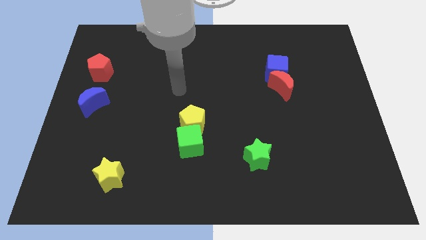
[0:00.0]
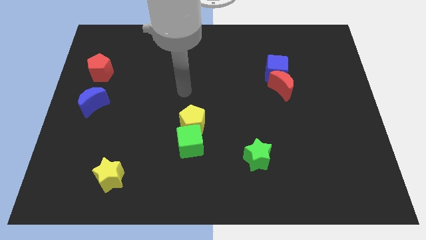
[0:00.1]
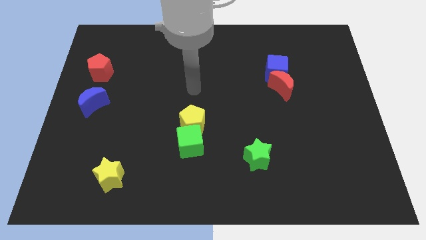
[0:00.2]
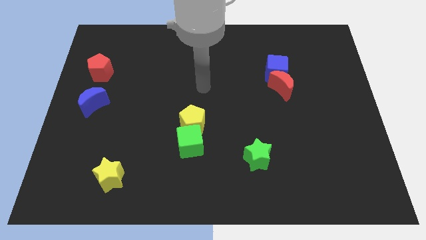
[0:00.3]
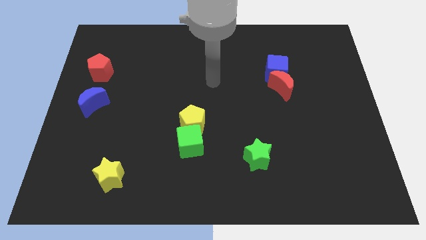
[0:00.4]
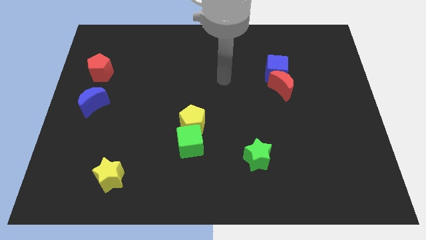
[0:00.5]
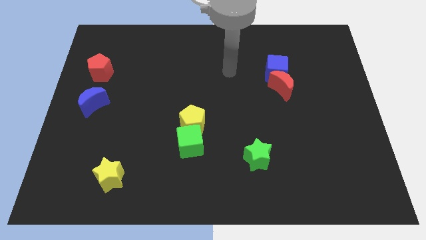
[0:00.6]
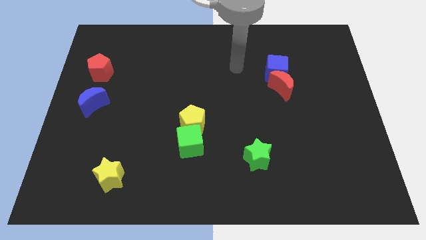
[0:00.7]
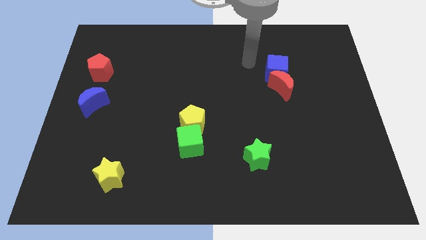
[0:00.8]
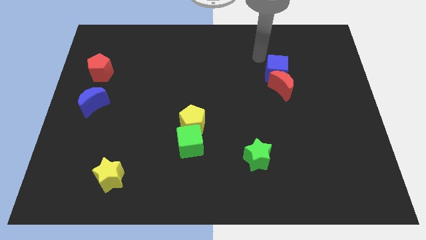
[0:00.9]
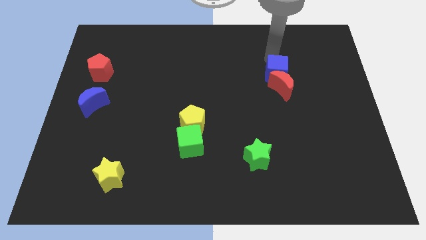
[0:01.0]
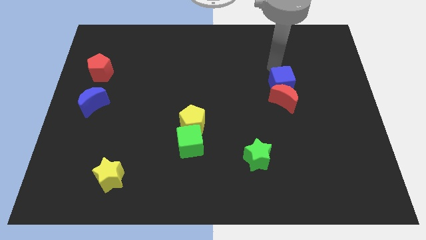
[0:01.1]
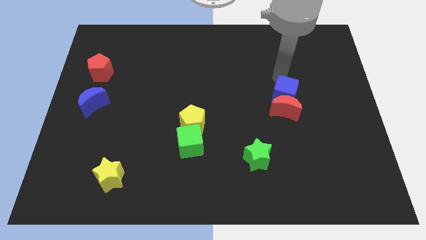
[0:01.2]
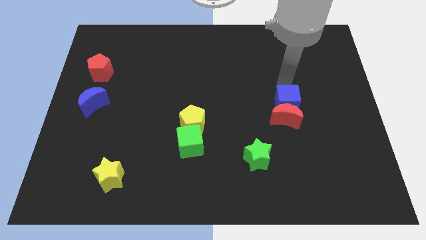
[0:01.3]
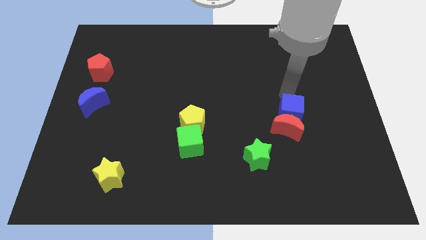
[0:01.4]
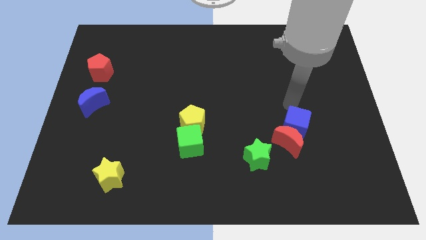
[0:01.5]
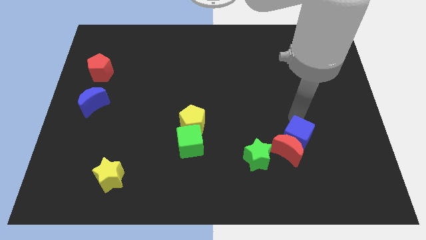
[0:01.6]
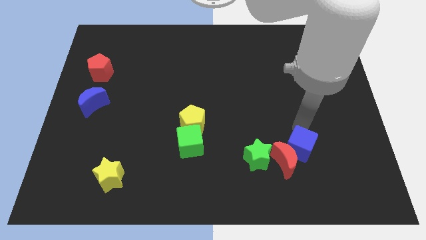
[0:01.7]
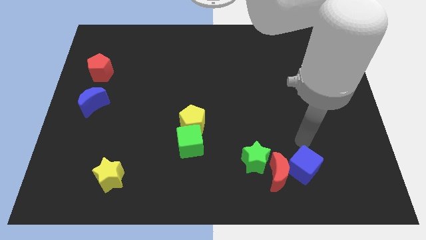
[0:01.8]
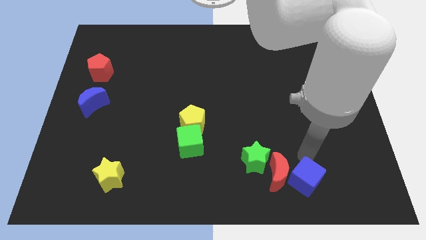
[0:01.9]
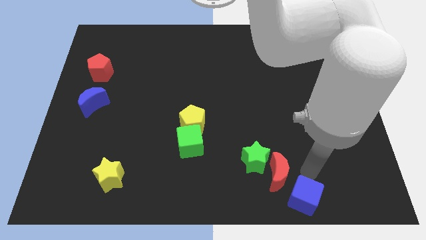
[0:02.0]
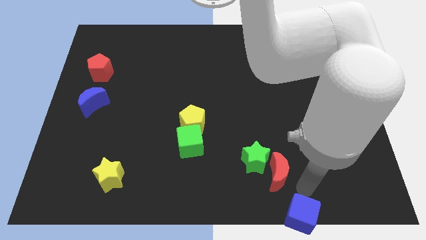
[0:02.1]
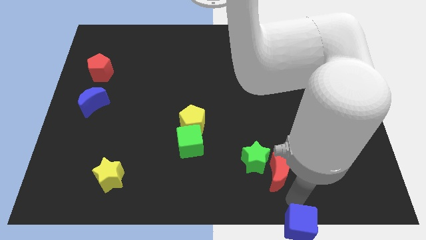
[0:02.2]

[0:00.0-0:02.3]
move the red moon away from the blue cube

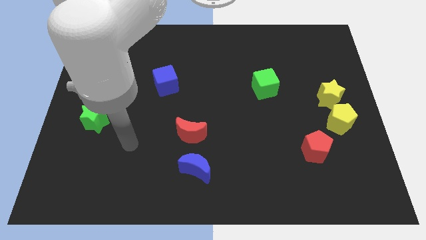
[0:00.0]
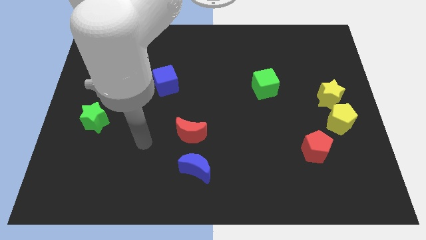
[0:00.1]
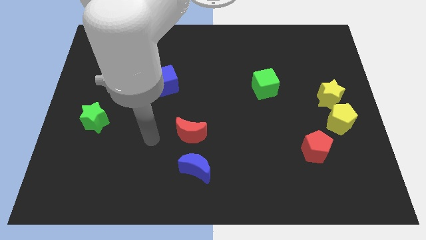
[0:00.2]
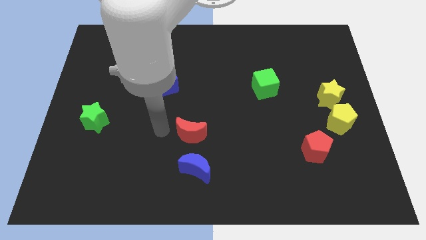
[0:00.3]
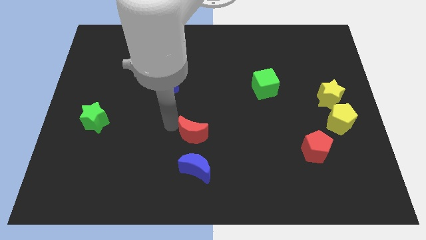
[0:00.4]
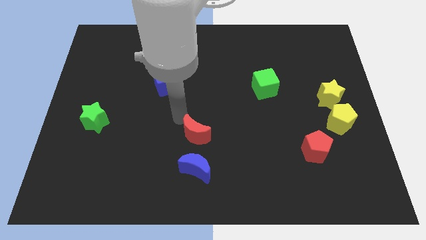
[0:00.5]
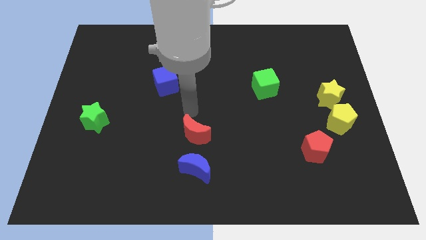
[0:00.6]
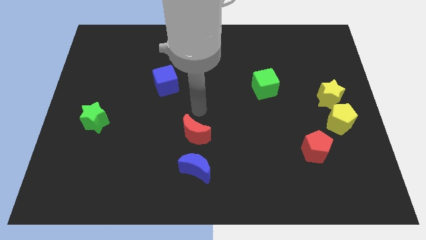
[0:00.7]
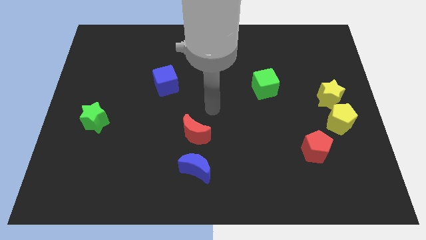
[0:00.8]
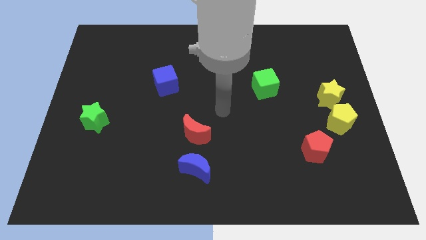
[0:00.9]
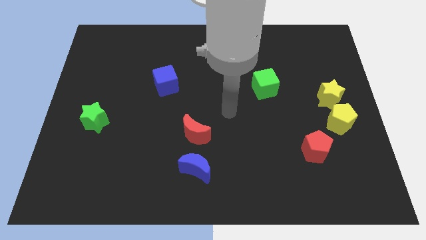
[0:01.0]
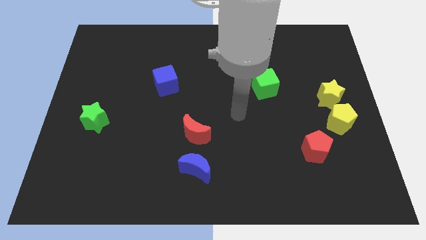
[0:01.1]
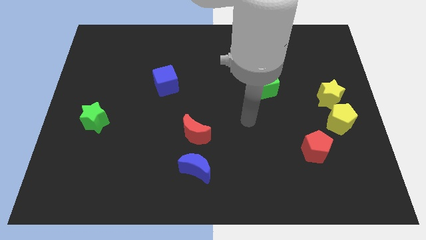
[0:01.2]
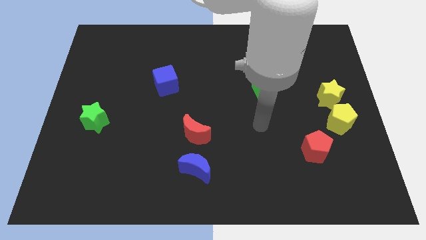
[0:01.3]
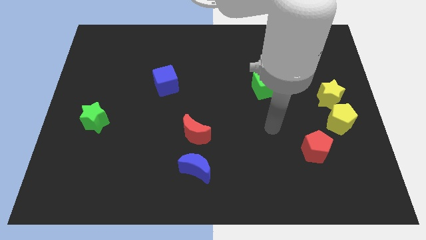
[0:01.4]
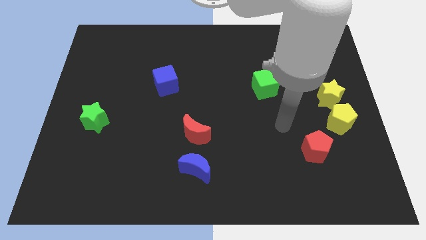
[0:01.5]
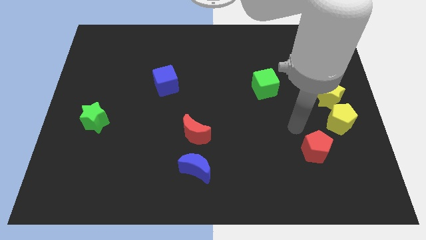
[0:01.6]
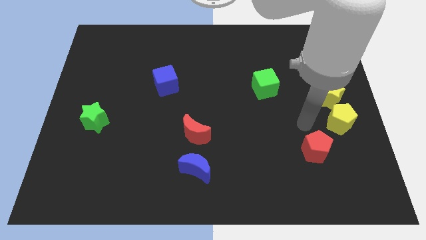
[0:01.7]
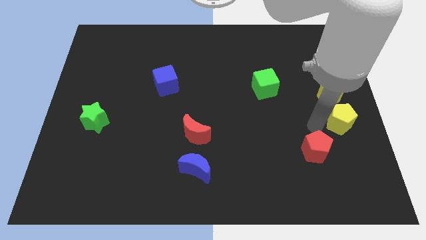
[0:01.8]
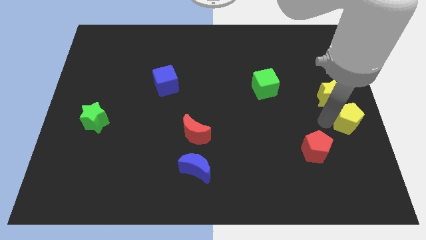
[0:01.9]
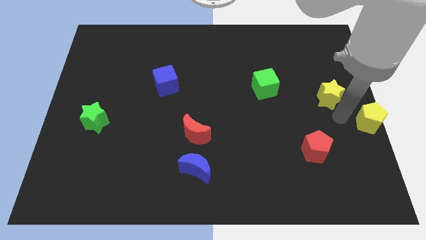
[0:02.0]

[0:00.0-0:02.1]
pull the yellow star apart from the yellow pentagon

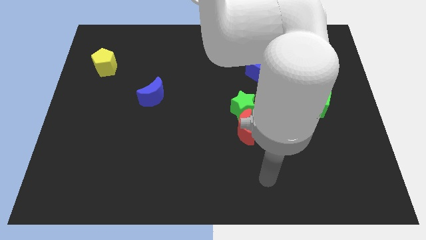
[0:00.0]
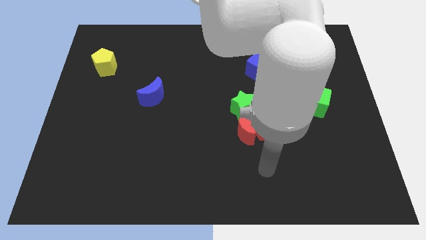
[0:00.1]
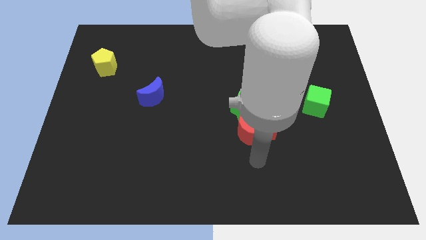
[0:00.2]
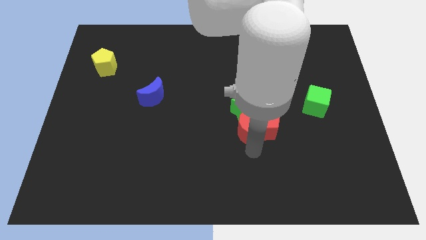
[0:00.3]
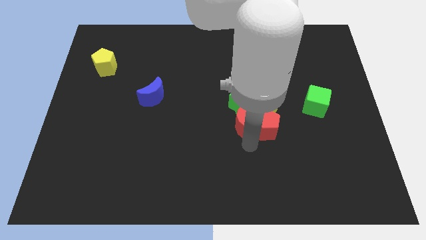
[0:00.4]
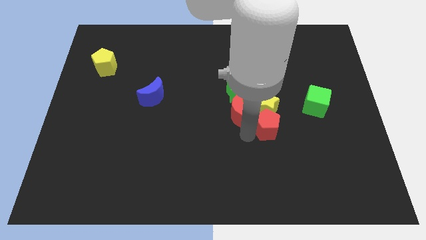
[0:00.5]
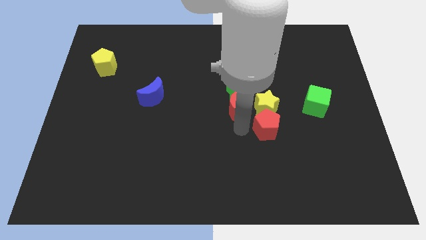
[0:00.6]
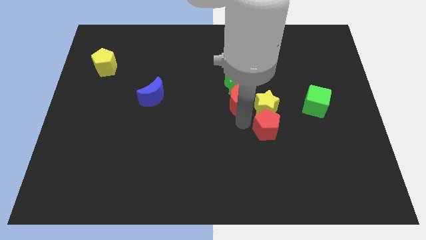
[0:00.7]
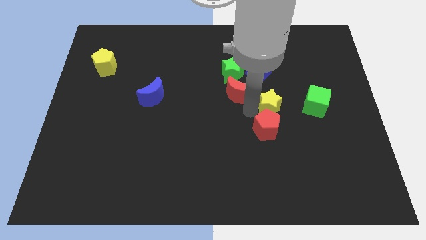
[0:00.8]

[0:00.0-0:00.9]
move the red pentagon away from the group of blocks

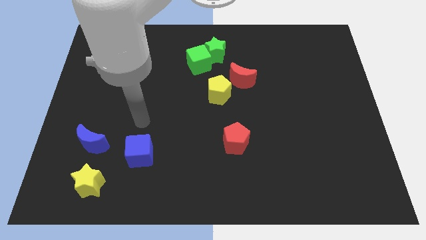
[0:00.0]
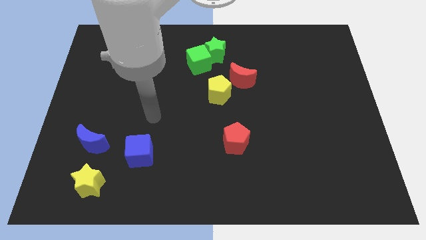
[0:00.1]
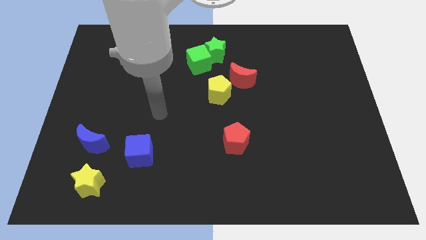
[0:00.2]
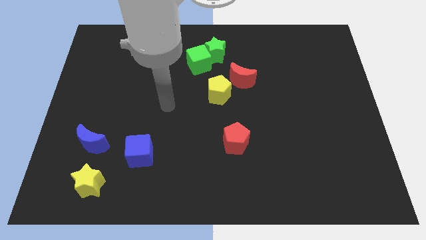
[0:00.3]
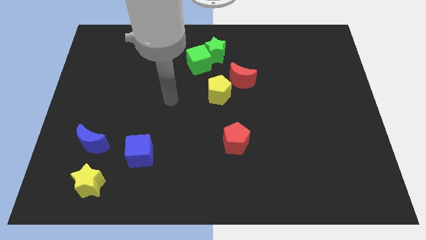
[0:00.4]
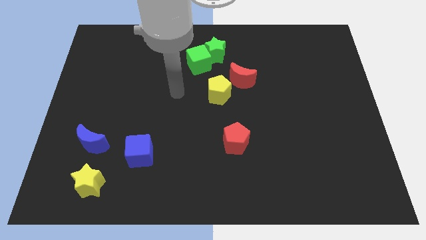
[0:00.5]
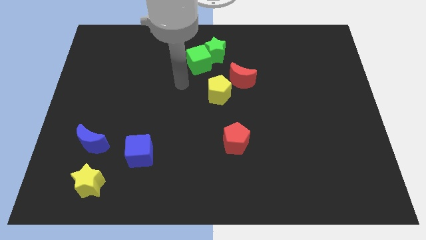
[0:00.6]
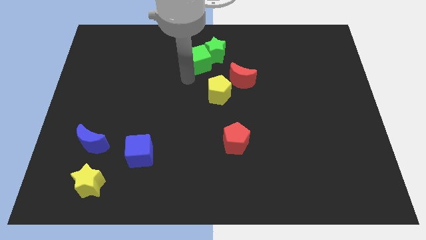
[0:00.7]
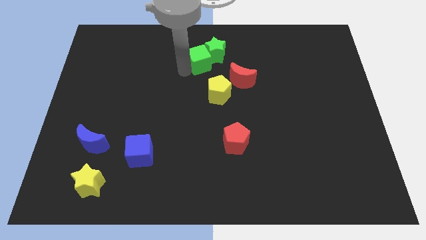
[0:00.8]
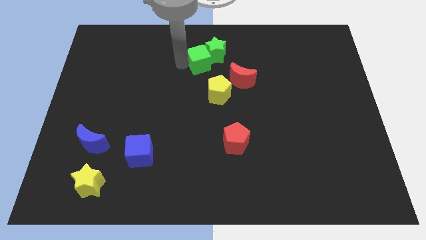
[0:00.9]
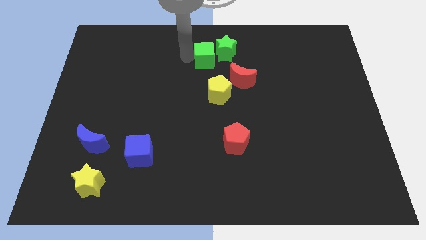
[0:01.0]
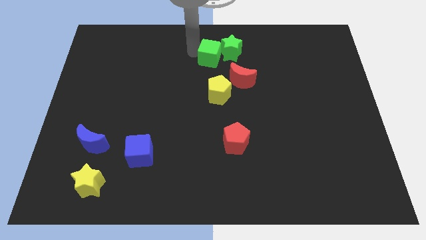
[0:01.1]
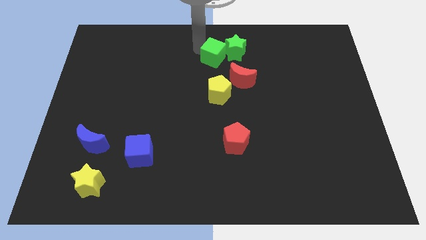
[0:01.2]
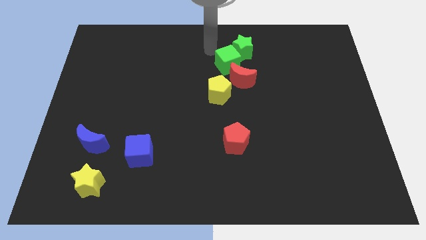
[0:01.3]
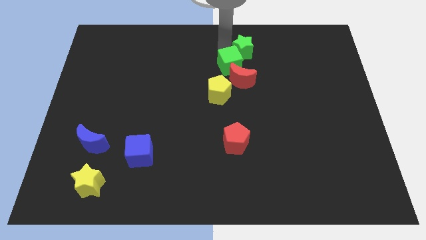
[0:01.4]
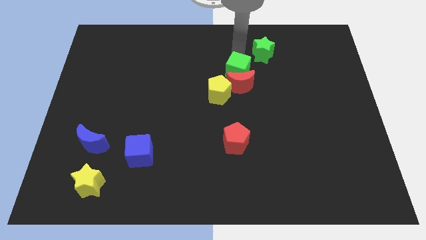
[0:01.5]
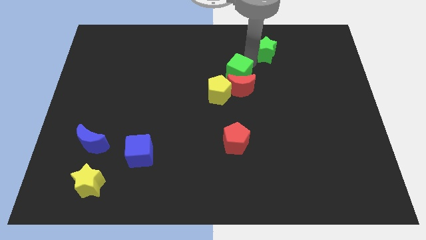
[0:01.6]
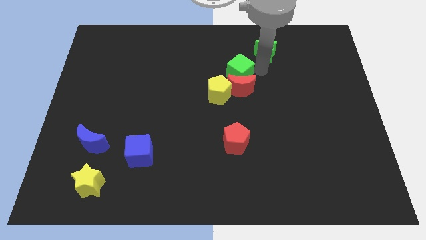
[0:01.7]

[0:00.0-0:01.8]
separate the green cube from the green star

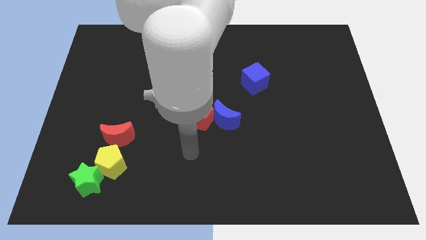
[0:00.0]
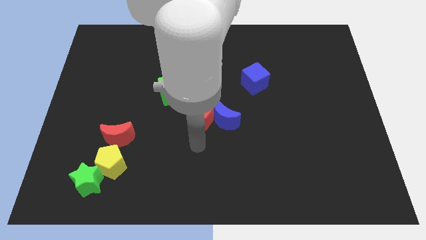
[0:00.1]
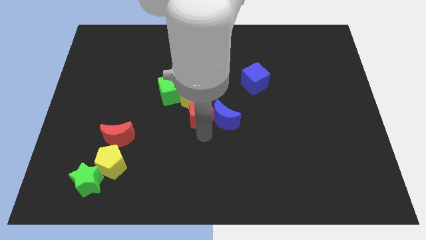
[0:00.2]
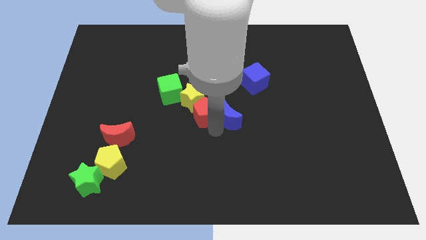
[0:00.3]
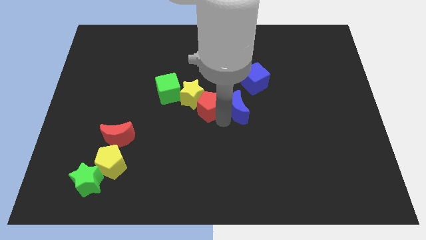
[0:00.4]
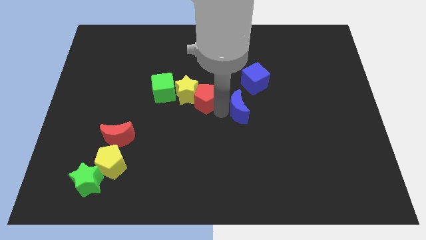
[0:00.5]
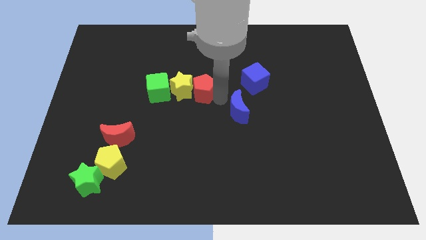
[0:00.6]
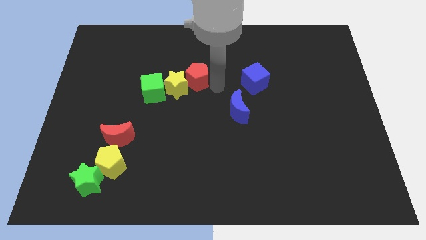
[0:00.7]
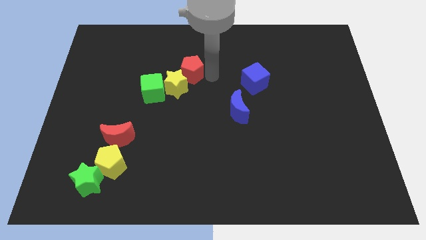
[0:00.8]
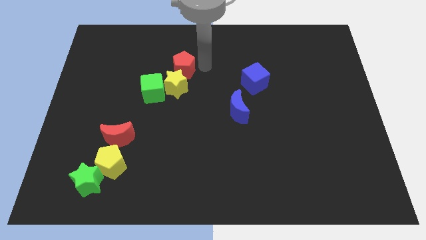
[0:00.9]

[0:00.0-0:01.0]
separate the red pentagon from the yellow star and blue moon

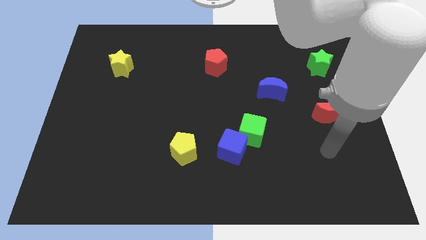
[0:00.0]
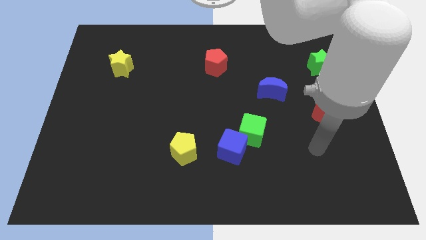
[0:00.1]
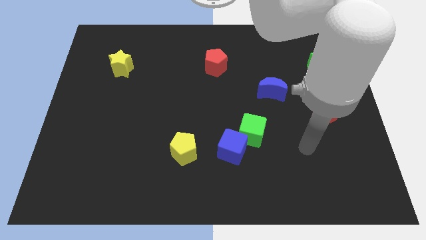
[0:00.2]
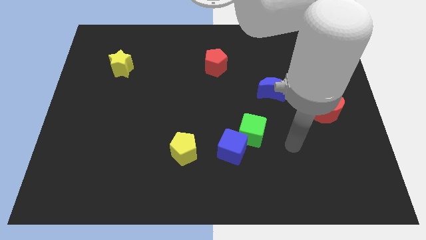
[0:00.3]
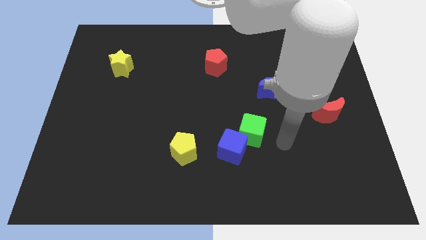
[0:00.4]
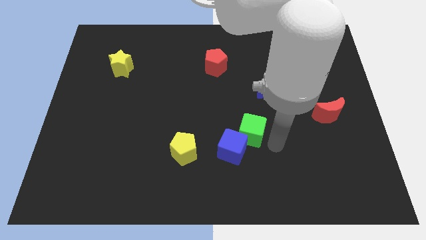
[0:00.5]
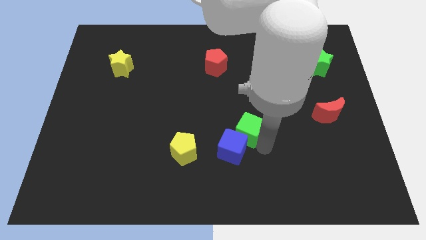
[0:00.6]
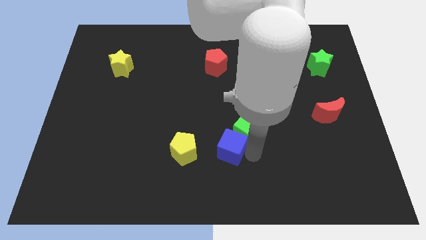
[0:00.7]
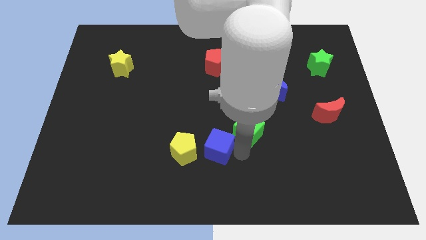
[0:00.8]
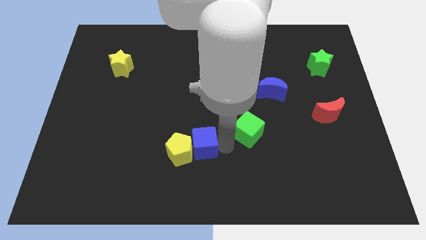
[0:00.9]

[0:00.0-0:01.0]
pull the green cube apart from the blue cube

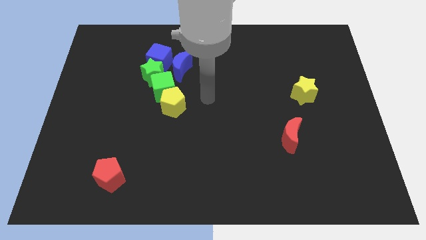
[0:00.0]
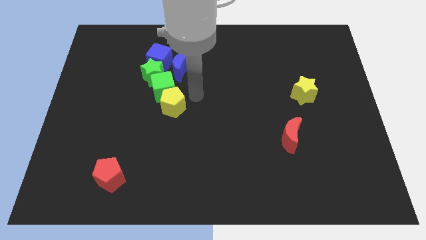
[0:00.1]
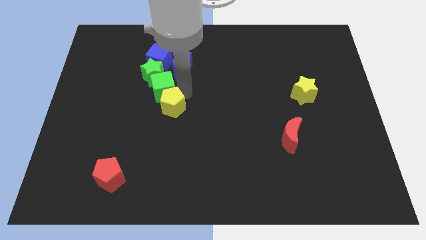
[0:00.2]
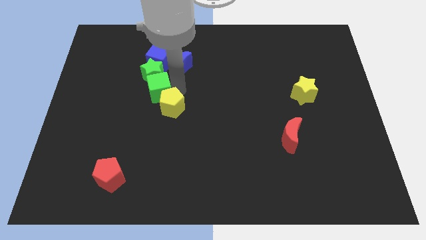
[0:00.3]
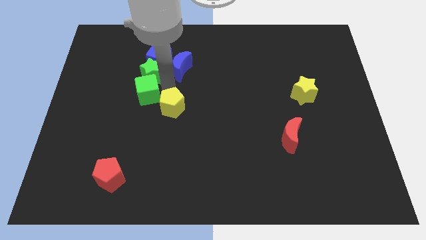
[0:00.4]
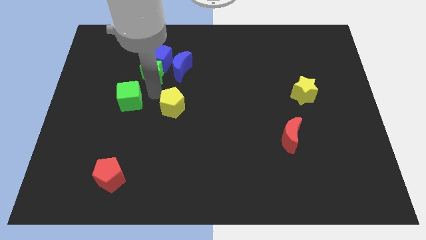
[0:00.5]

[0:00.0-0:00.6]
move the yellow pentagon away from the green cube
